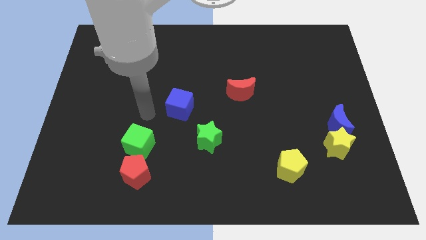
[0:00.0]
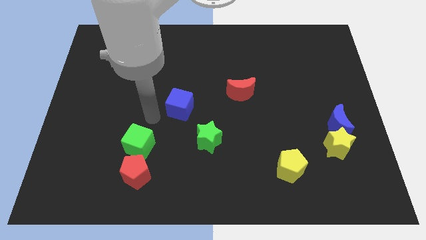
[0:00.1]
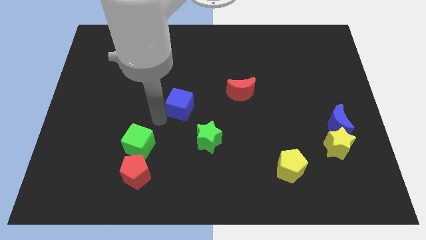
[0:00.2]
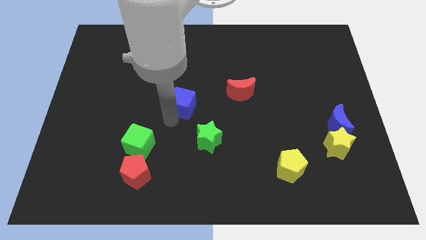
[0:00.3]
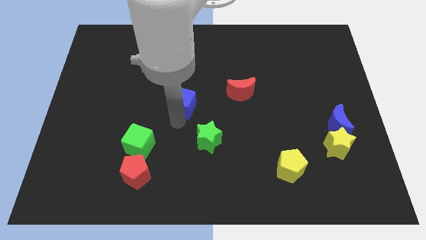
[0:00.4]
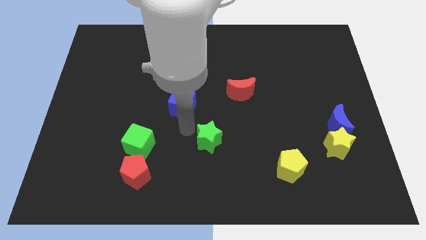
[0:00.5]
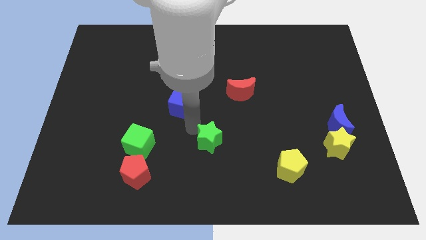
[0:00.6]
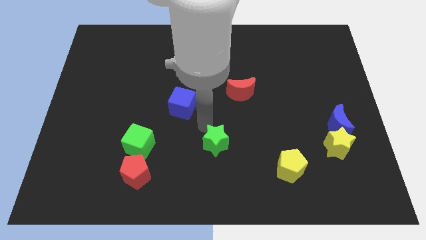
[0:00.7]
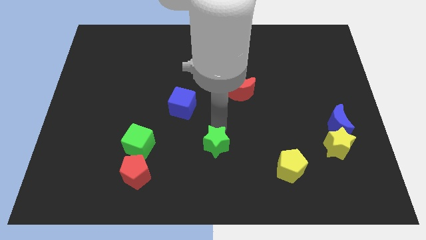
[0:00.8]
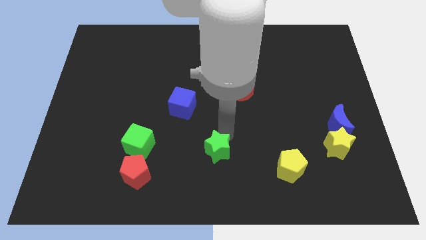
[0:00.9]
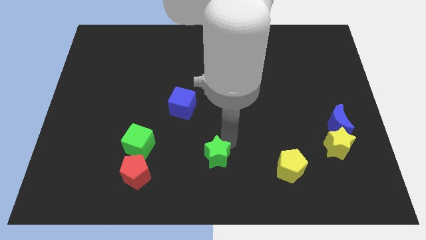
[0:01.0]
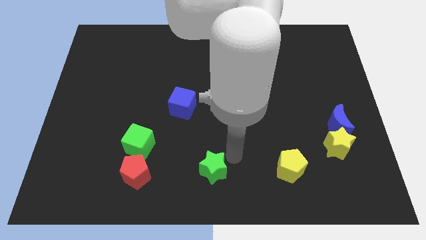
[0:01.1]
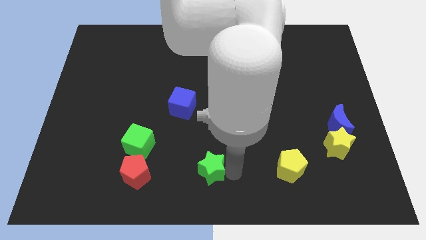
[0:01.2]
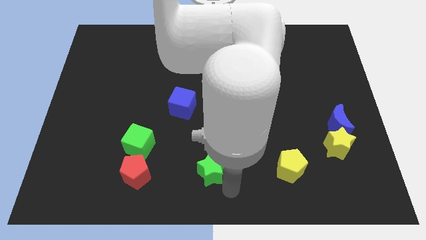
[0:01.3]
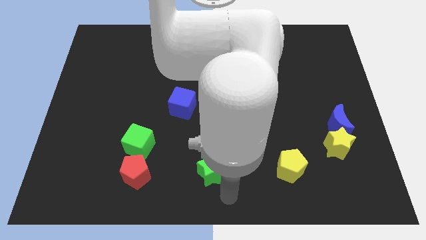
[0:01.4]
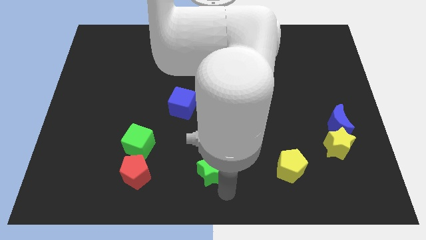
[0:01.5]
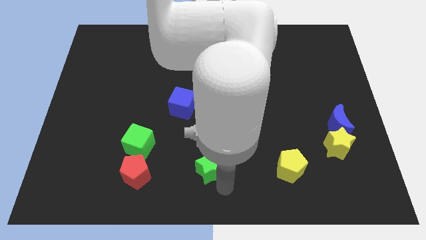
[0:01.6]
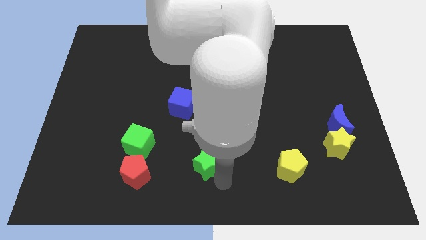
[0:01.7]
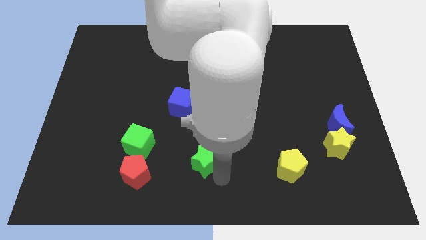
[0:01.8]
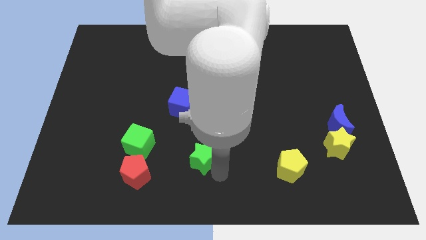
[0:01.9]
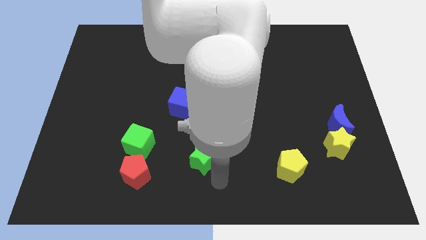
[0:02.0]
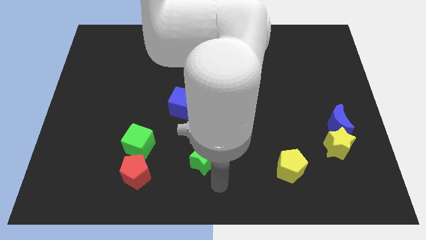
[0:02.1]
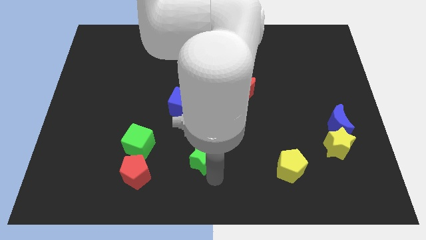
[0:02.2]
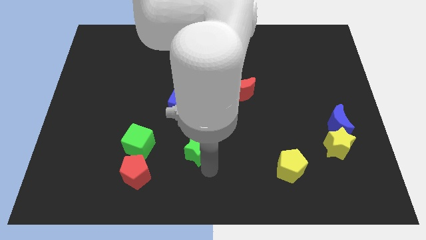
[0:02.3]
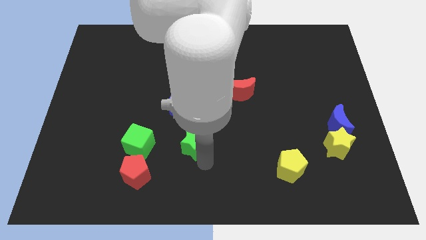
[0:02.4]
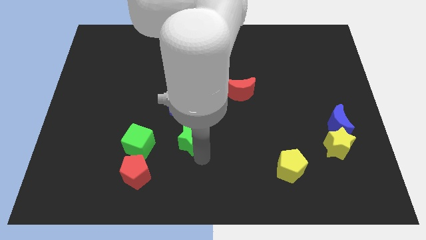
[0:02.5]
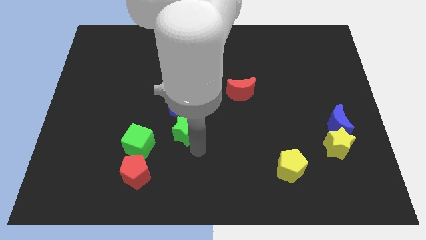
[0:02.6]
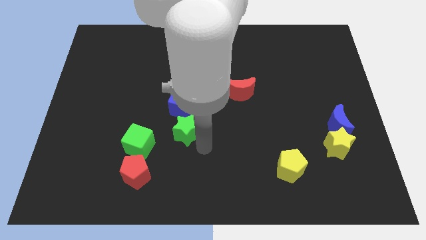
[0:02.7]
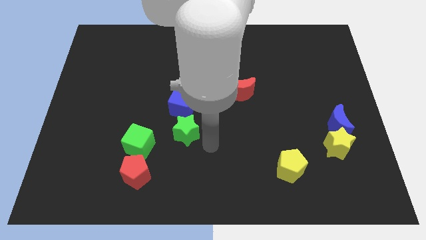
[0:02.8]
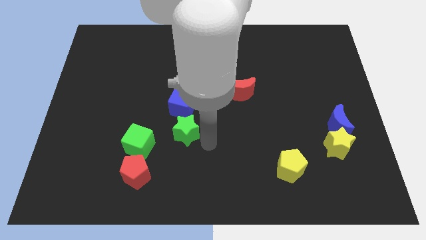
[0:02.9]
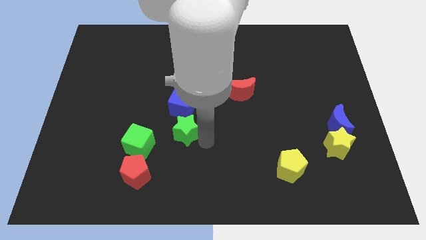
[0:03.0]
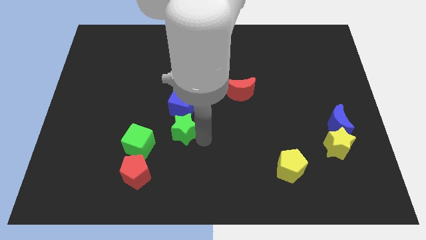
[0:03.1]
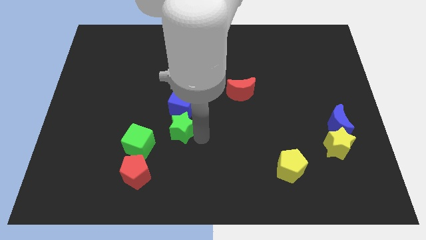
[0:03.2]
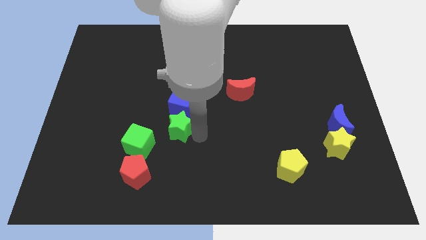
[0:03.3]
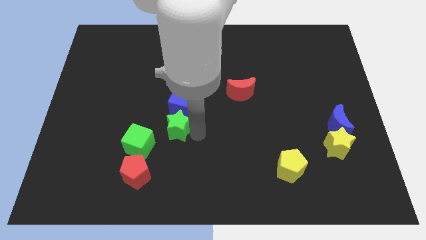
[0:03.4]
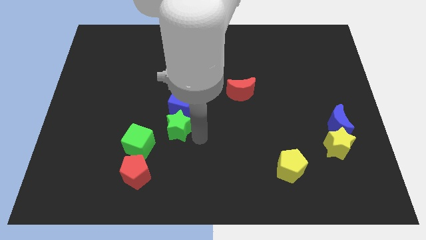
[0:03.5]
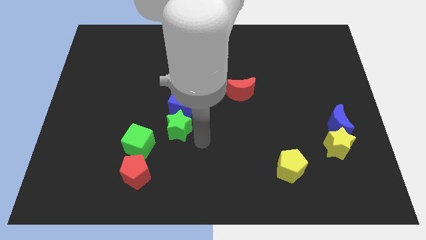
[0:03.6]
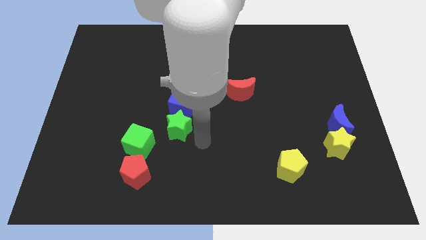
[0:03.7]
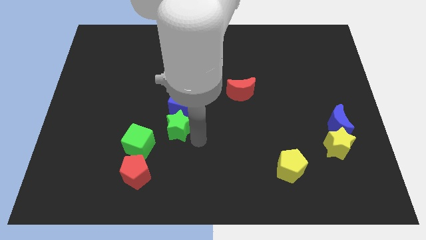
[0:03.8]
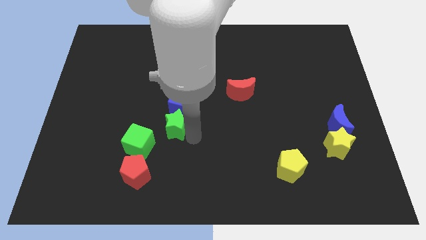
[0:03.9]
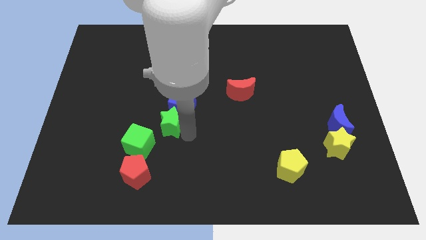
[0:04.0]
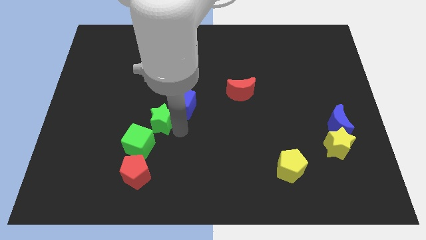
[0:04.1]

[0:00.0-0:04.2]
move the green star above the green cube

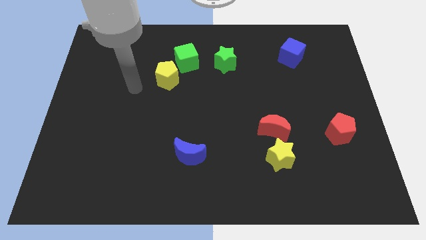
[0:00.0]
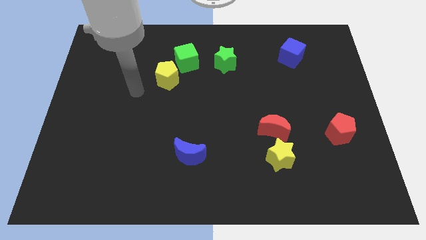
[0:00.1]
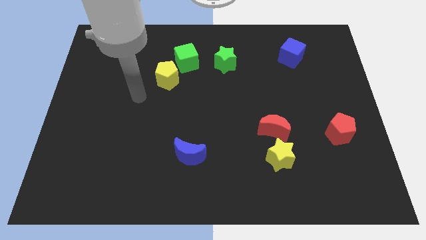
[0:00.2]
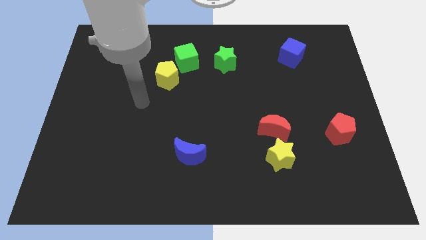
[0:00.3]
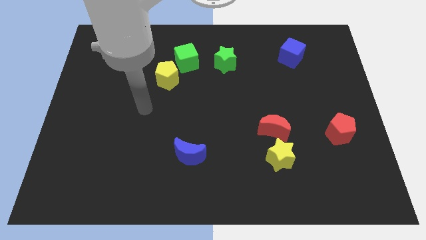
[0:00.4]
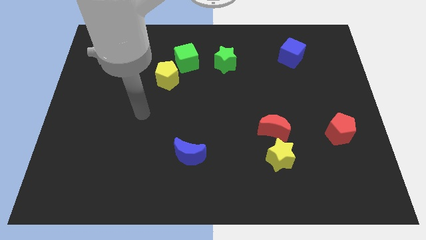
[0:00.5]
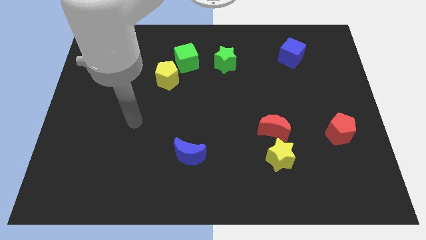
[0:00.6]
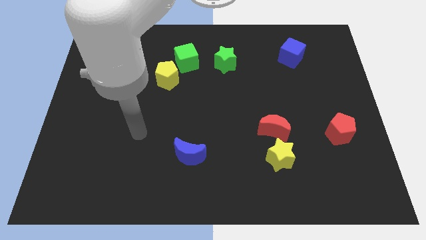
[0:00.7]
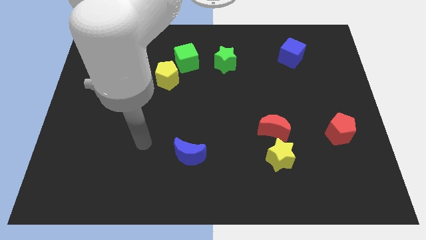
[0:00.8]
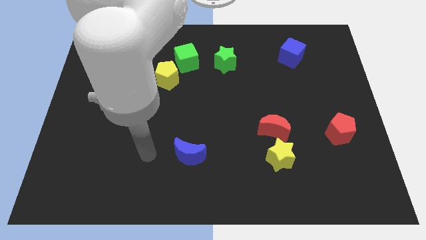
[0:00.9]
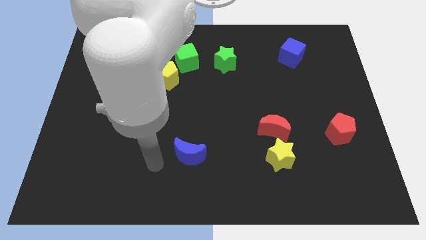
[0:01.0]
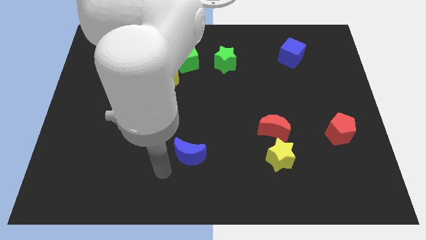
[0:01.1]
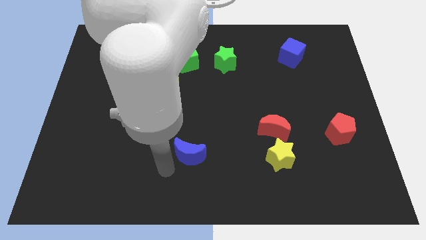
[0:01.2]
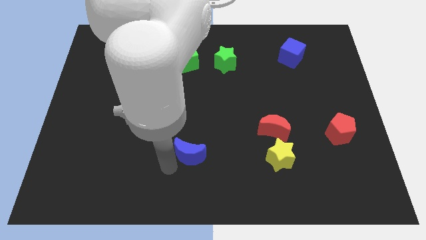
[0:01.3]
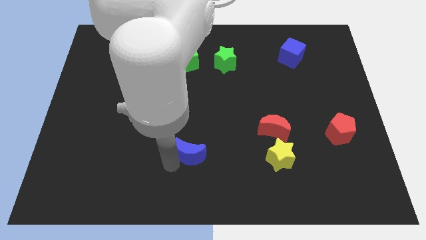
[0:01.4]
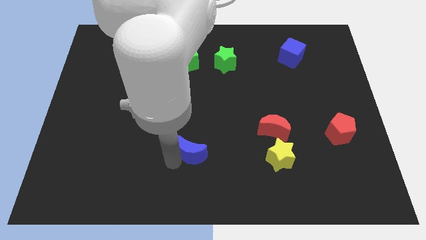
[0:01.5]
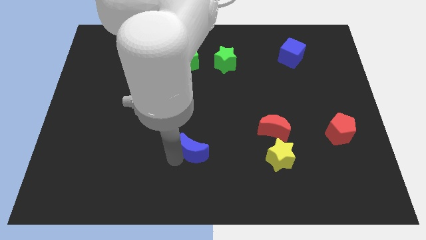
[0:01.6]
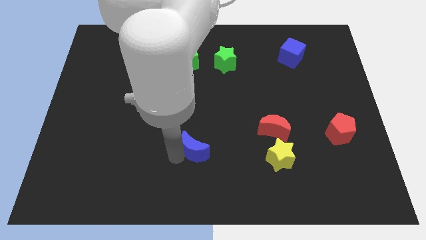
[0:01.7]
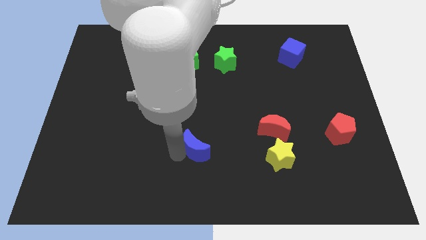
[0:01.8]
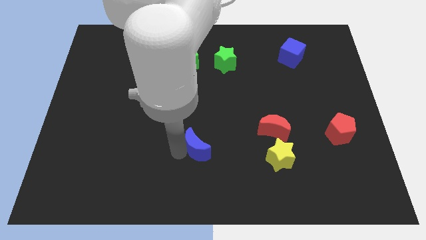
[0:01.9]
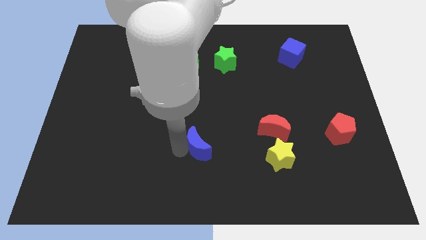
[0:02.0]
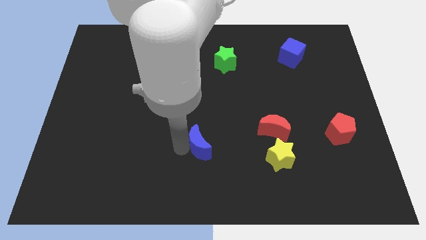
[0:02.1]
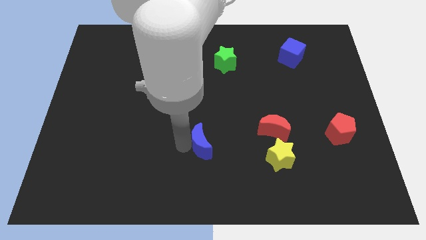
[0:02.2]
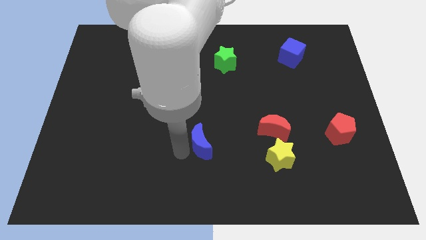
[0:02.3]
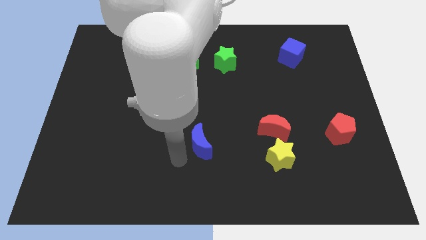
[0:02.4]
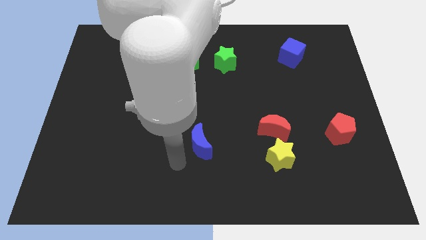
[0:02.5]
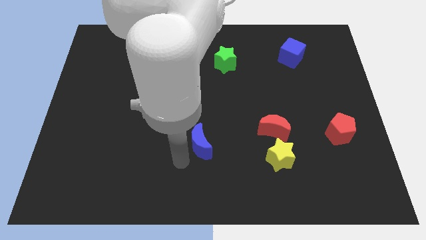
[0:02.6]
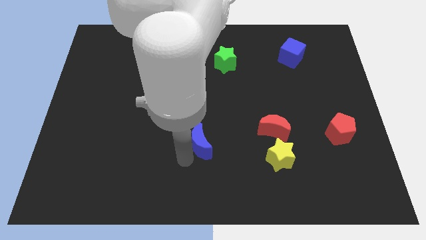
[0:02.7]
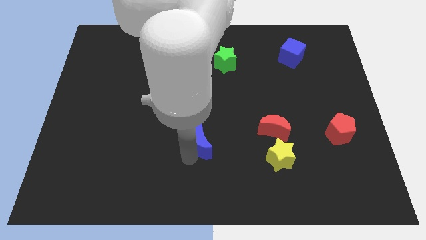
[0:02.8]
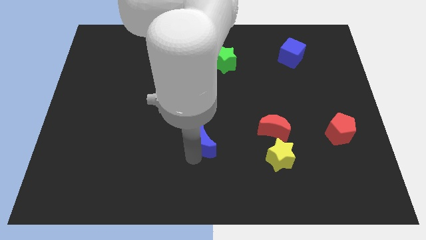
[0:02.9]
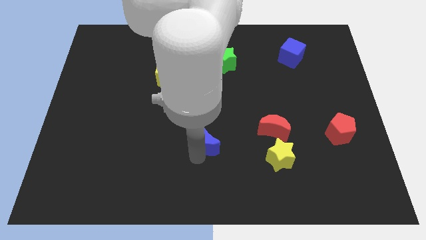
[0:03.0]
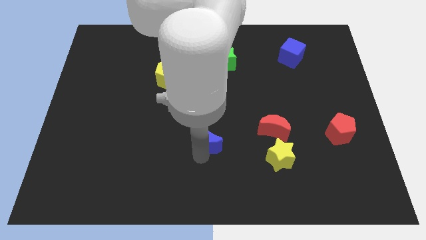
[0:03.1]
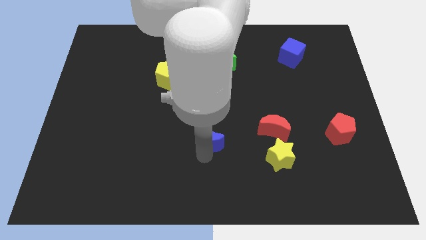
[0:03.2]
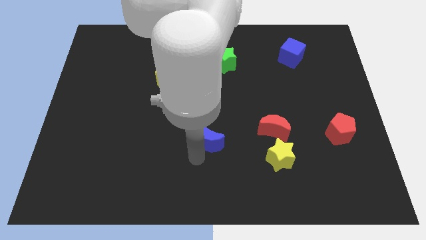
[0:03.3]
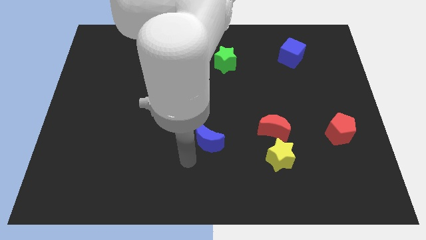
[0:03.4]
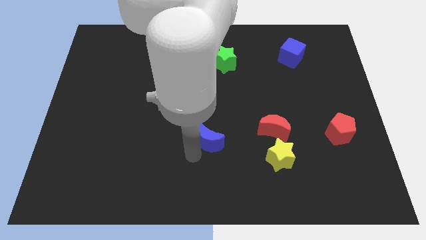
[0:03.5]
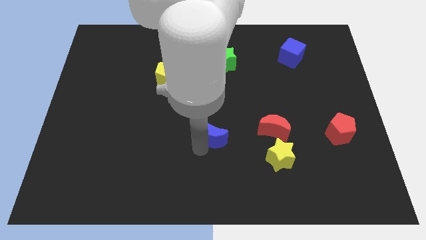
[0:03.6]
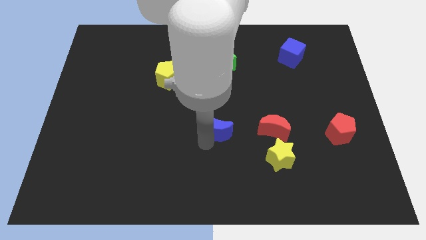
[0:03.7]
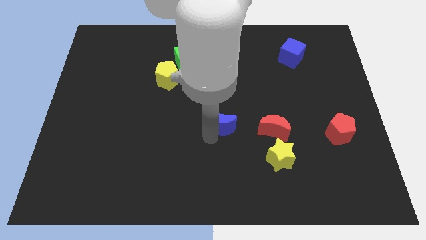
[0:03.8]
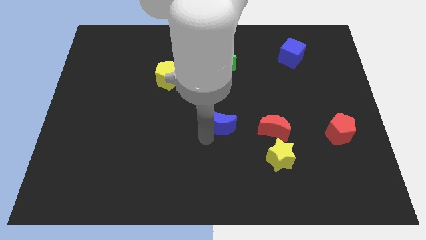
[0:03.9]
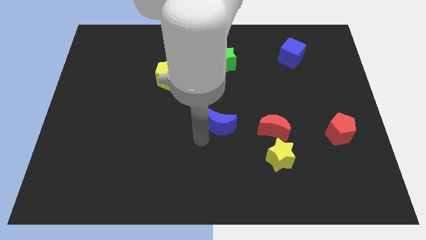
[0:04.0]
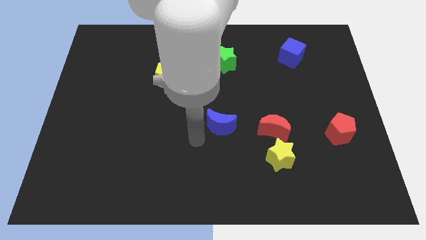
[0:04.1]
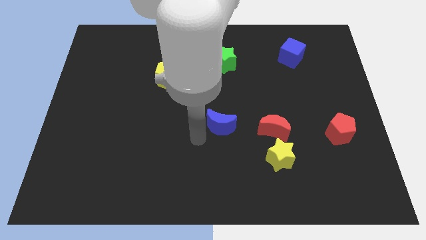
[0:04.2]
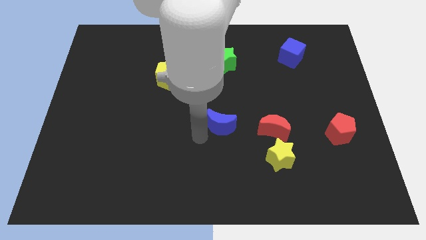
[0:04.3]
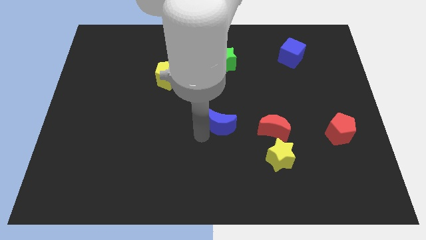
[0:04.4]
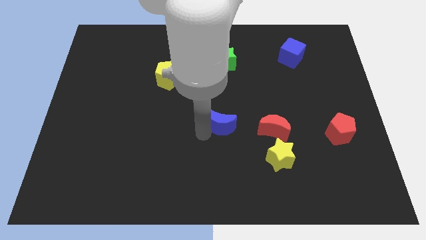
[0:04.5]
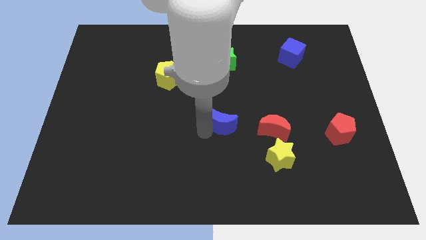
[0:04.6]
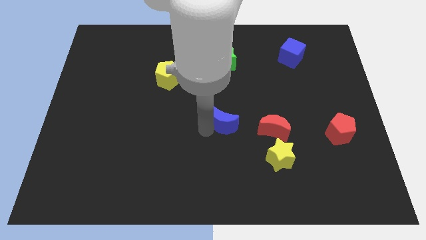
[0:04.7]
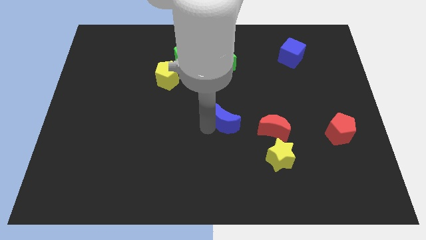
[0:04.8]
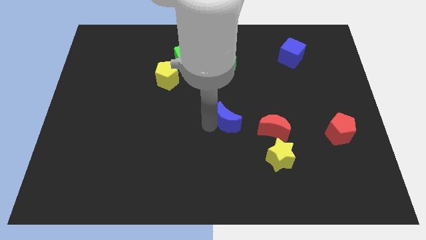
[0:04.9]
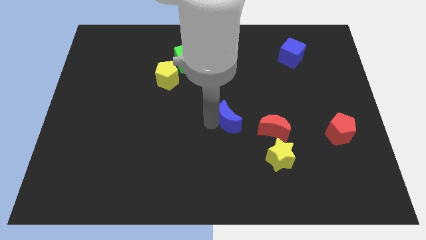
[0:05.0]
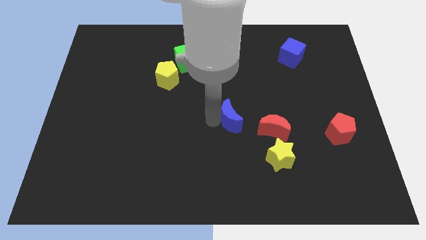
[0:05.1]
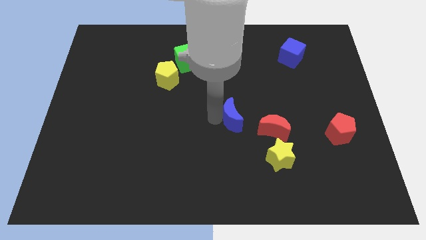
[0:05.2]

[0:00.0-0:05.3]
slide the blue moon to the top left of the red moon
